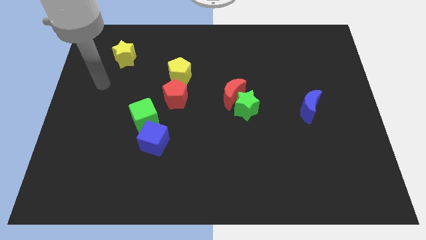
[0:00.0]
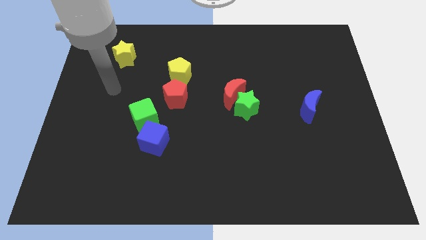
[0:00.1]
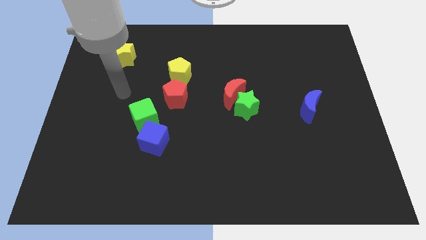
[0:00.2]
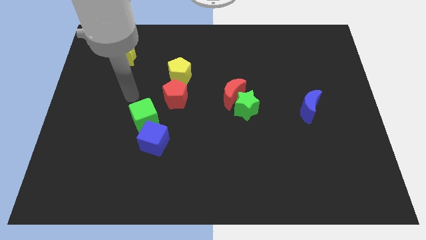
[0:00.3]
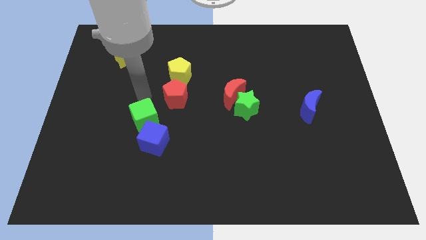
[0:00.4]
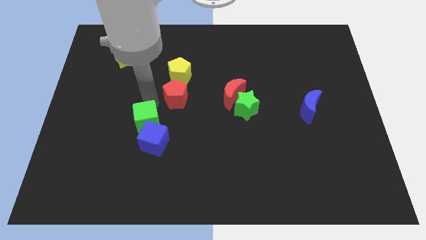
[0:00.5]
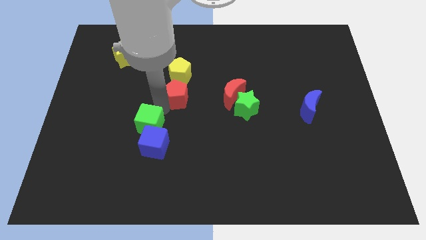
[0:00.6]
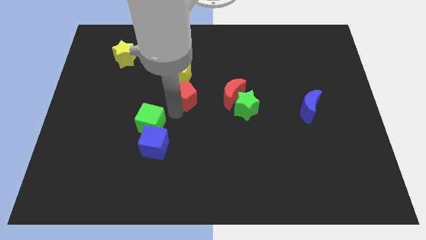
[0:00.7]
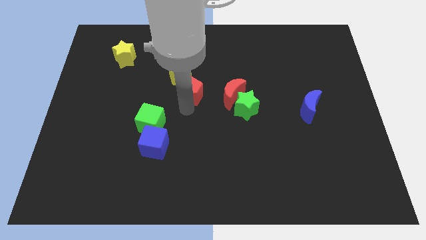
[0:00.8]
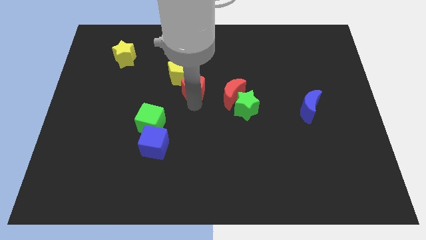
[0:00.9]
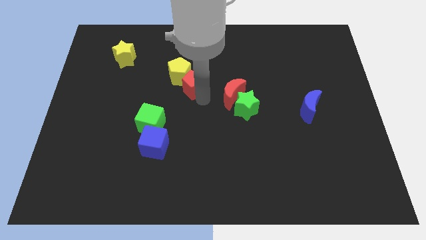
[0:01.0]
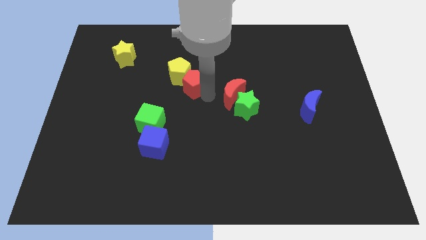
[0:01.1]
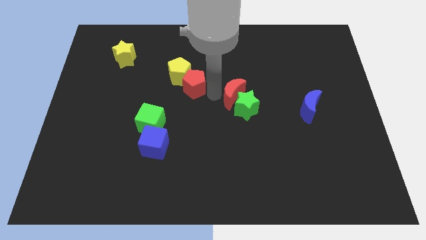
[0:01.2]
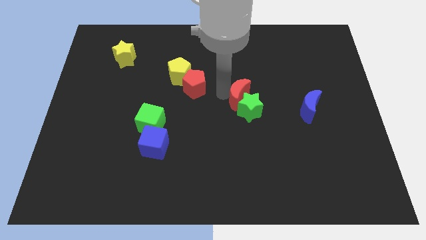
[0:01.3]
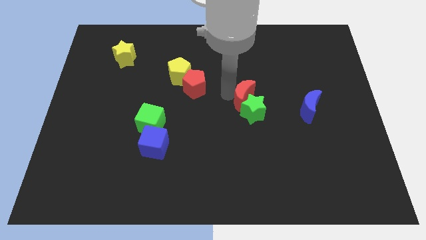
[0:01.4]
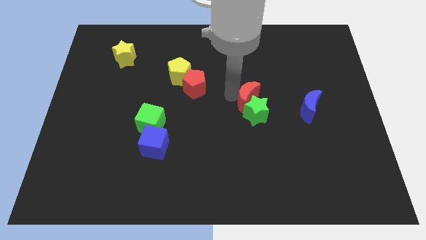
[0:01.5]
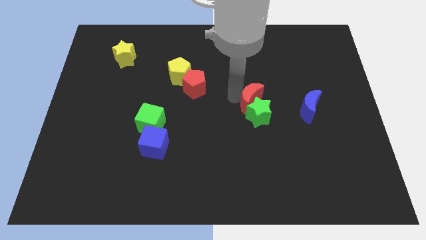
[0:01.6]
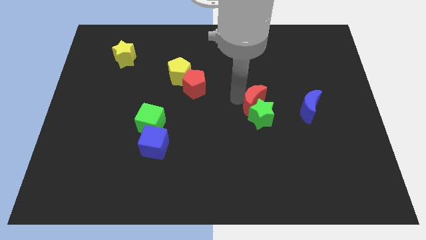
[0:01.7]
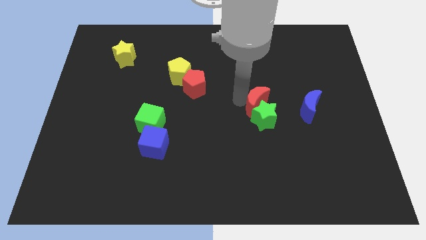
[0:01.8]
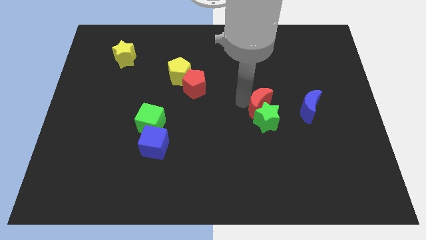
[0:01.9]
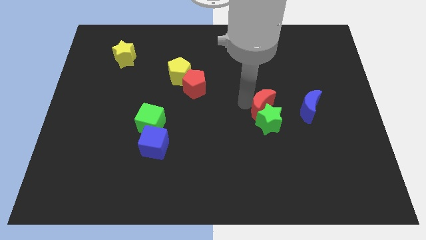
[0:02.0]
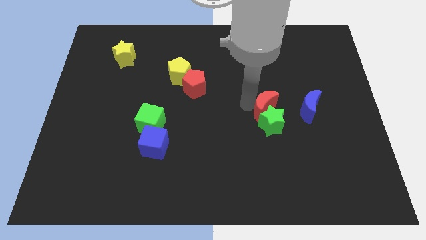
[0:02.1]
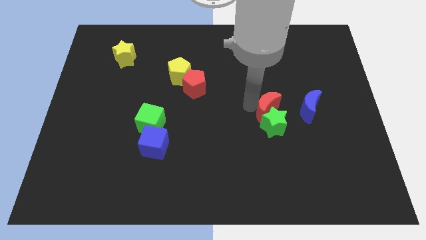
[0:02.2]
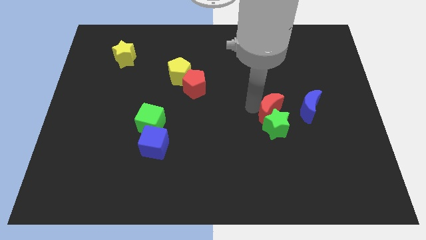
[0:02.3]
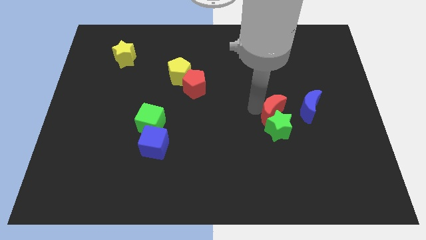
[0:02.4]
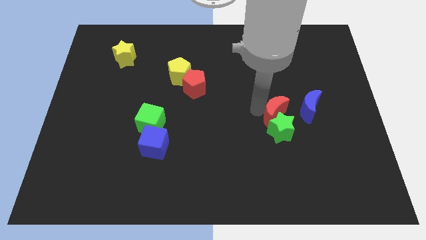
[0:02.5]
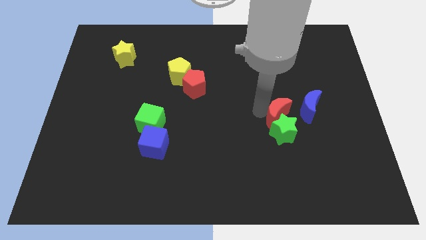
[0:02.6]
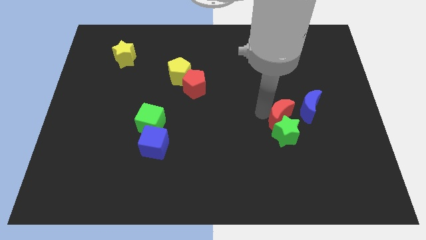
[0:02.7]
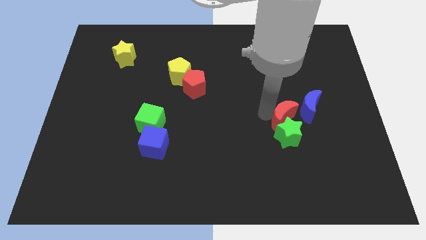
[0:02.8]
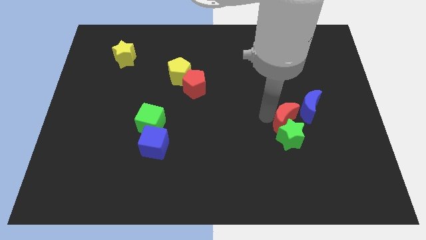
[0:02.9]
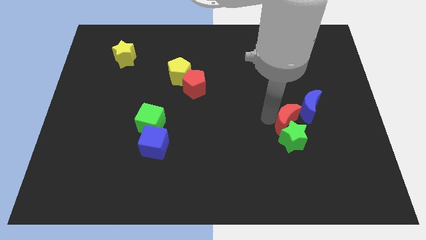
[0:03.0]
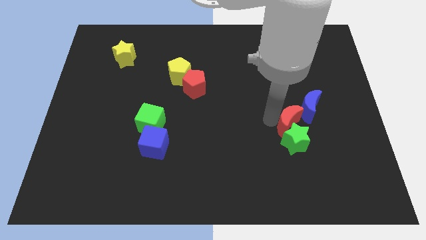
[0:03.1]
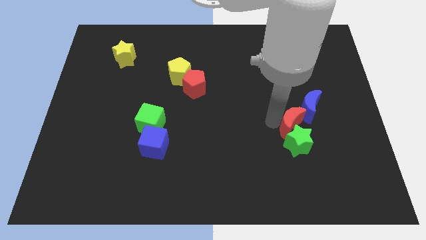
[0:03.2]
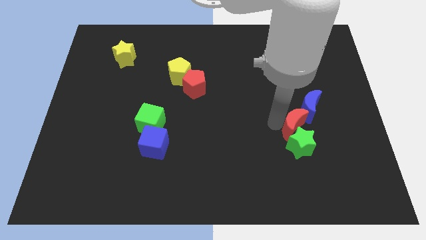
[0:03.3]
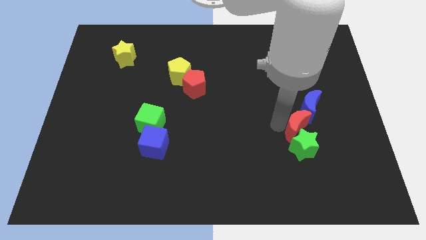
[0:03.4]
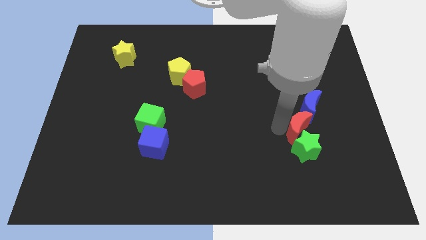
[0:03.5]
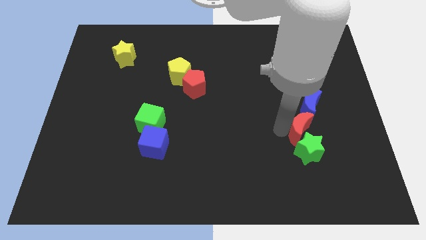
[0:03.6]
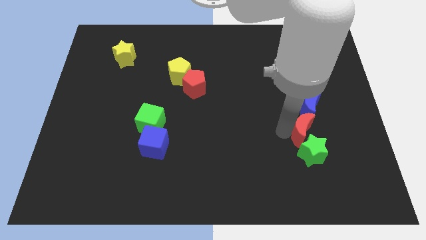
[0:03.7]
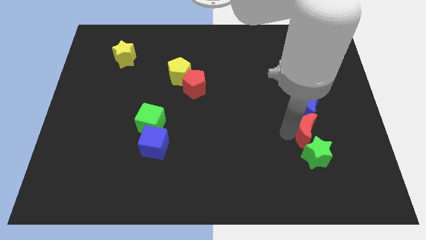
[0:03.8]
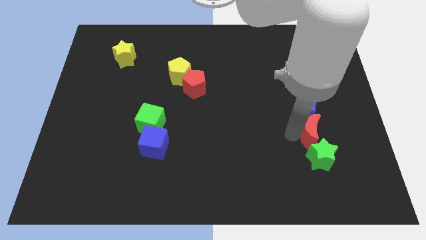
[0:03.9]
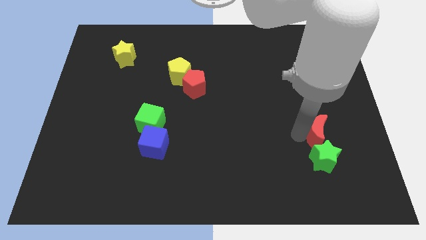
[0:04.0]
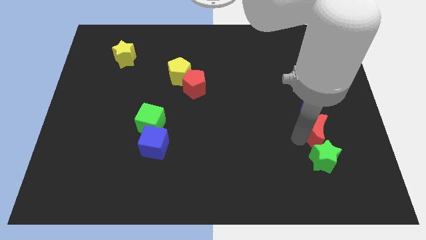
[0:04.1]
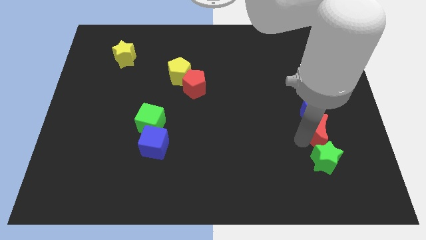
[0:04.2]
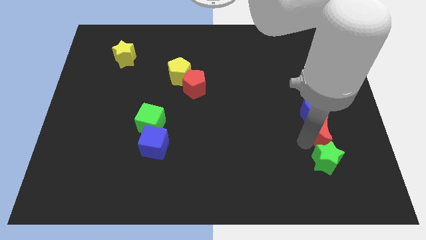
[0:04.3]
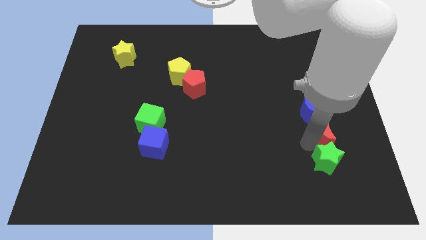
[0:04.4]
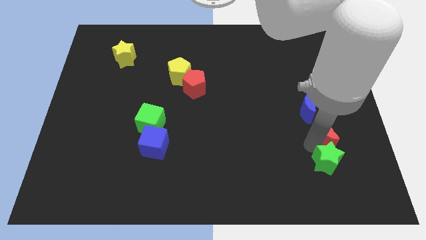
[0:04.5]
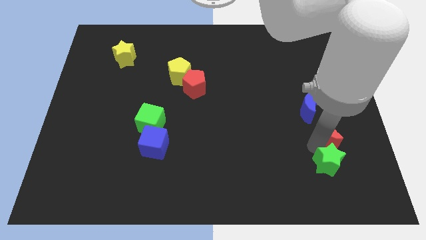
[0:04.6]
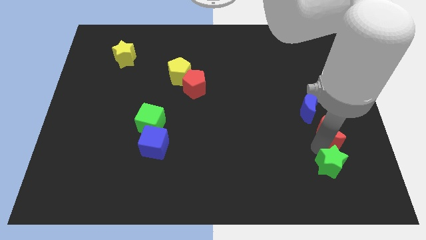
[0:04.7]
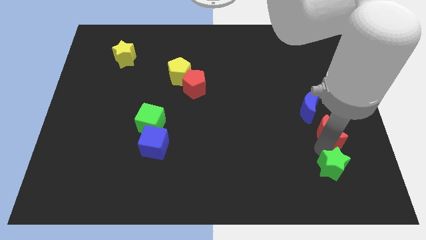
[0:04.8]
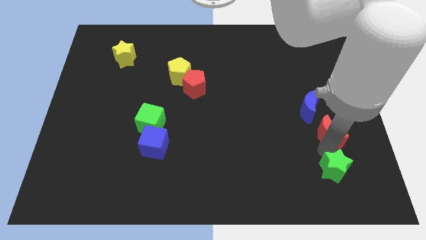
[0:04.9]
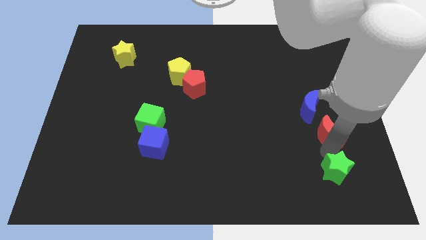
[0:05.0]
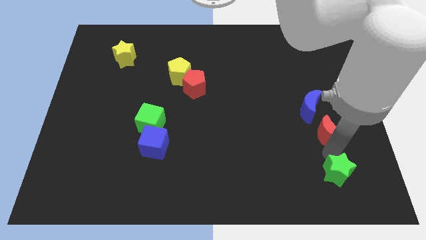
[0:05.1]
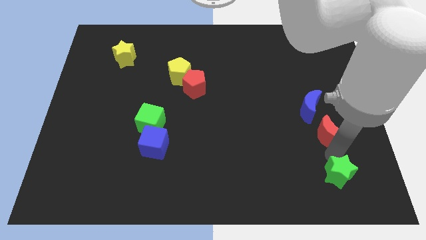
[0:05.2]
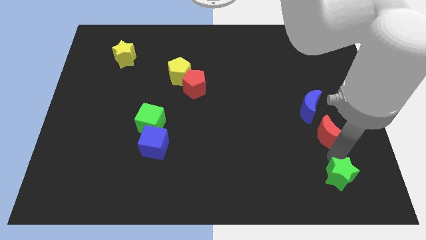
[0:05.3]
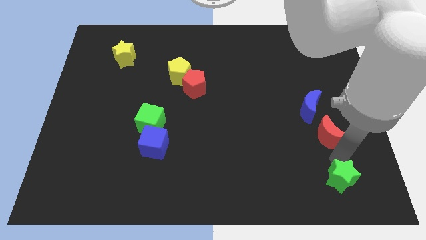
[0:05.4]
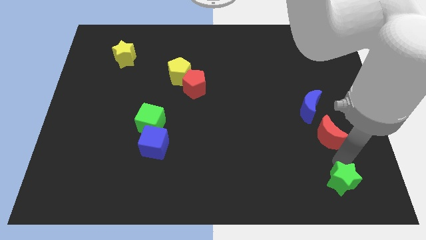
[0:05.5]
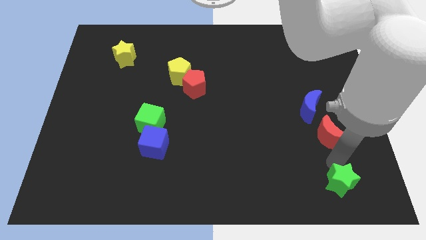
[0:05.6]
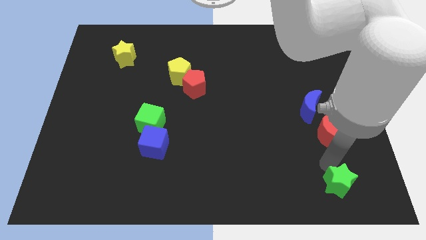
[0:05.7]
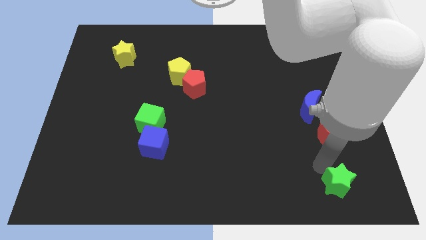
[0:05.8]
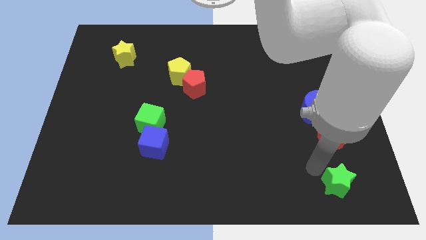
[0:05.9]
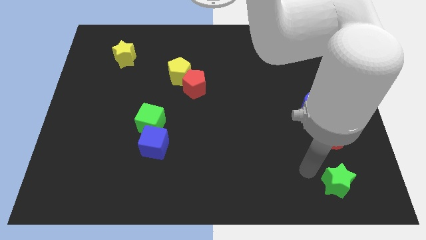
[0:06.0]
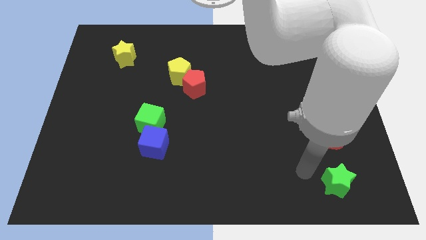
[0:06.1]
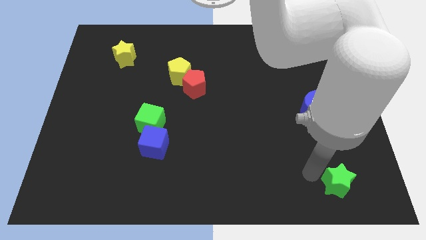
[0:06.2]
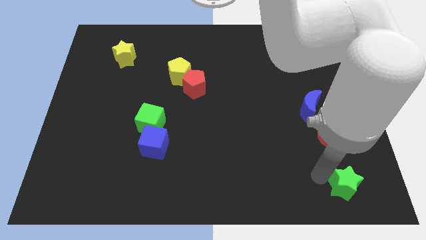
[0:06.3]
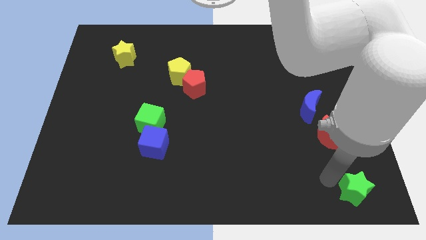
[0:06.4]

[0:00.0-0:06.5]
slide the green star to the lower right corner

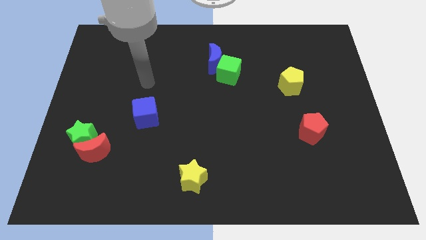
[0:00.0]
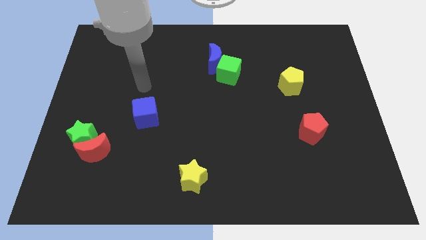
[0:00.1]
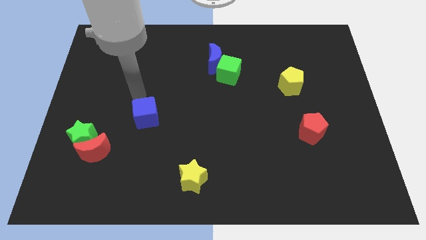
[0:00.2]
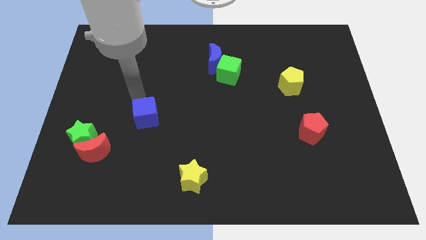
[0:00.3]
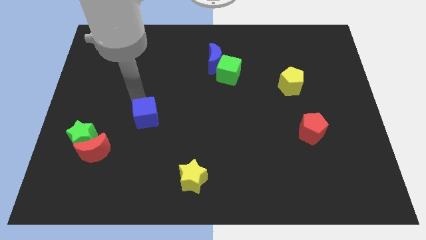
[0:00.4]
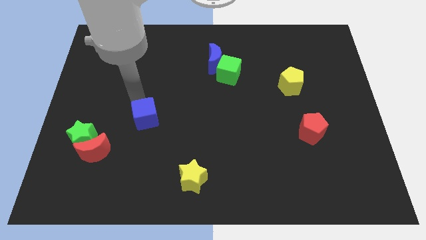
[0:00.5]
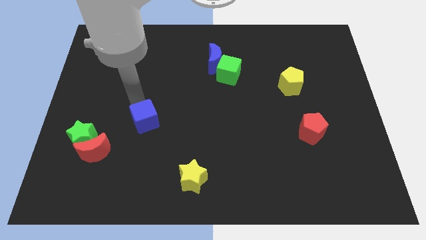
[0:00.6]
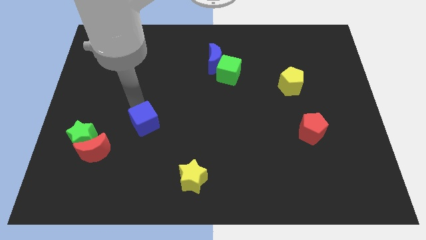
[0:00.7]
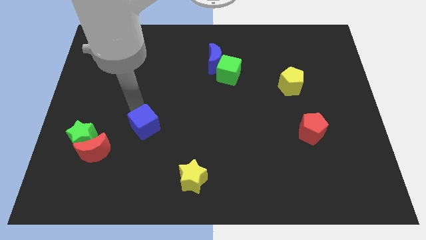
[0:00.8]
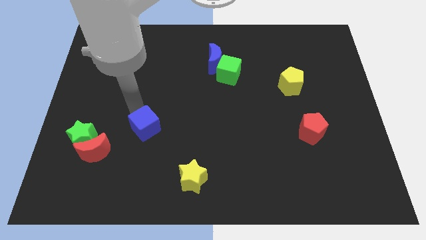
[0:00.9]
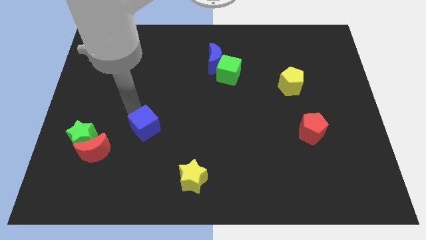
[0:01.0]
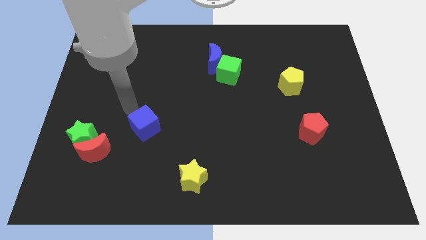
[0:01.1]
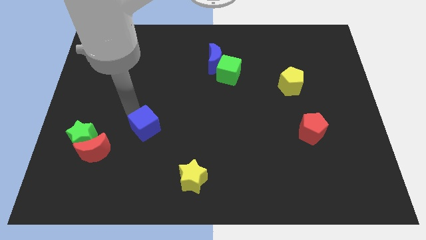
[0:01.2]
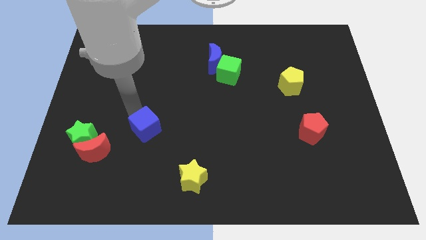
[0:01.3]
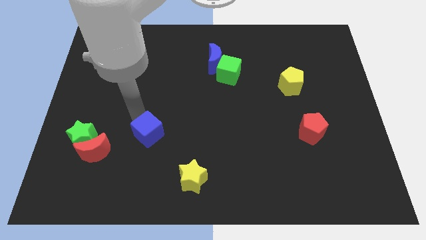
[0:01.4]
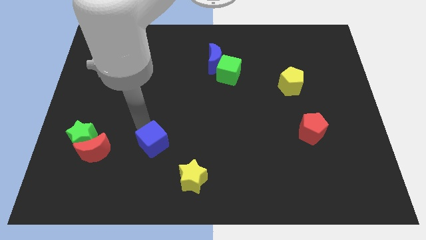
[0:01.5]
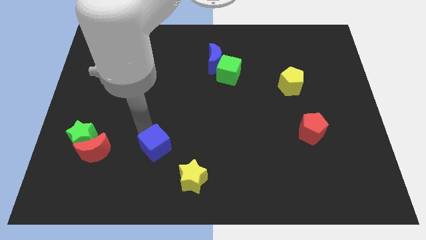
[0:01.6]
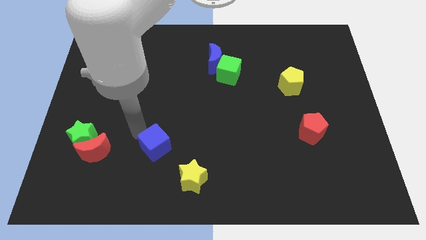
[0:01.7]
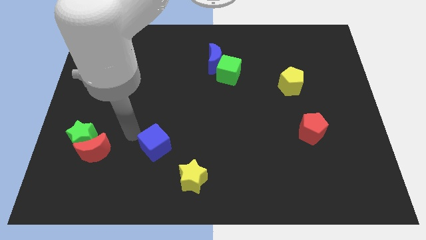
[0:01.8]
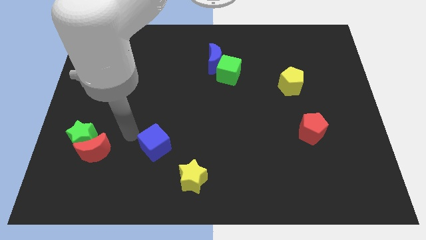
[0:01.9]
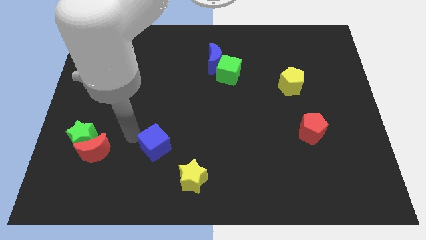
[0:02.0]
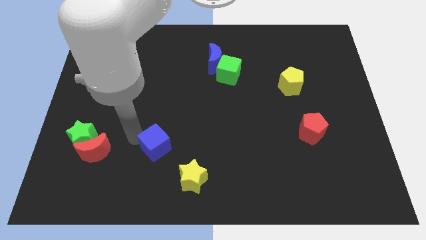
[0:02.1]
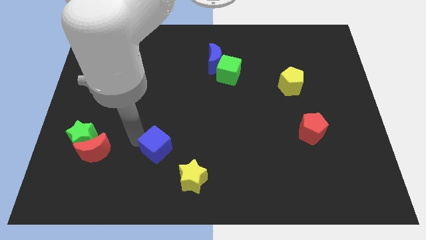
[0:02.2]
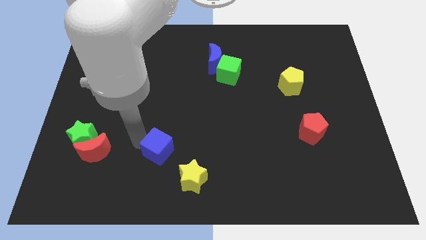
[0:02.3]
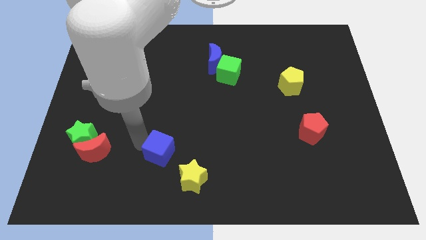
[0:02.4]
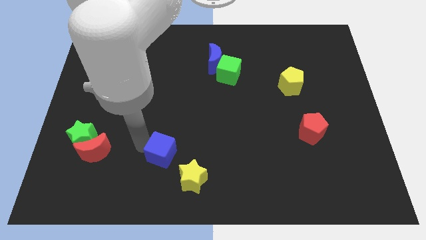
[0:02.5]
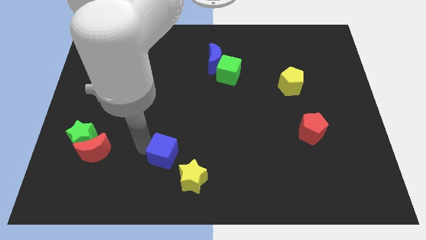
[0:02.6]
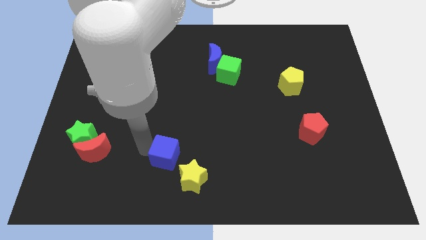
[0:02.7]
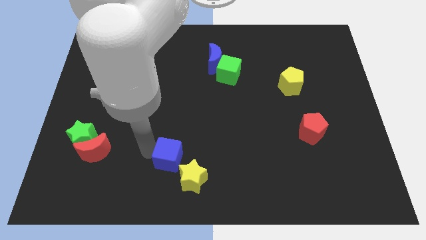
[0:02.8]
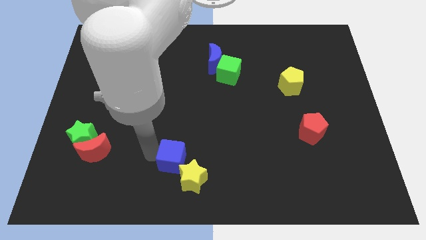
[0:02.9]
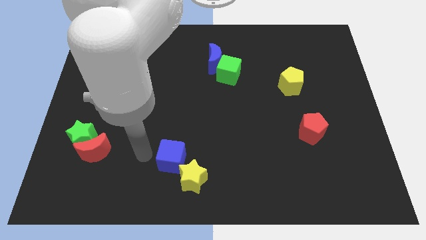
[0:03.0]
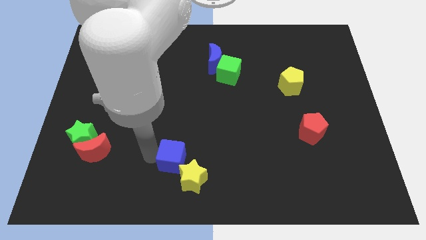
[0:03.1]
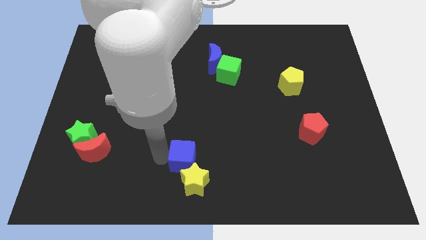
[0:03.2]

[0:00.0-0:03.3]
push the blue cube to the bottom
